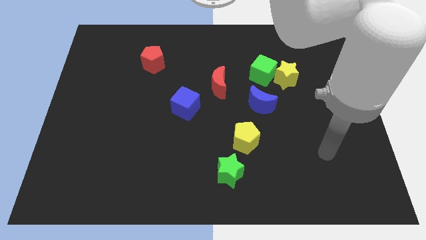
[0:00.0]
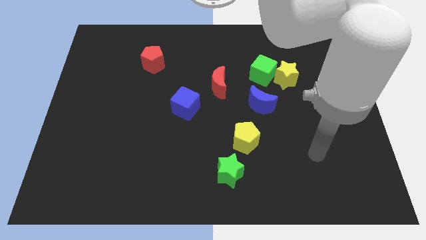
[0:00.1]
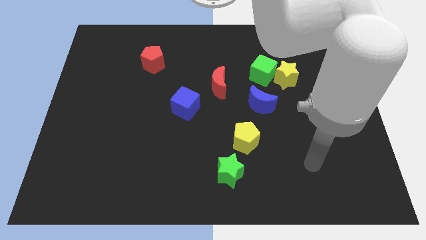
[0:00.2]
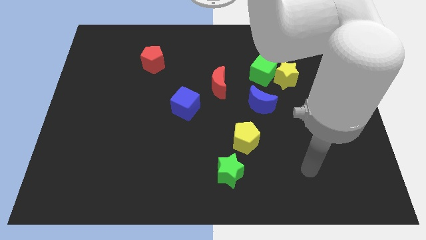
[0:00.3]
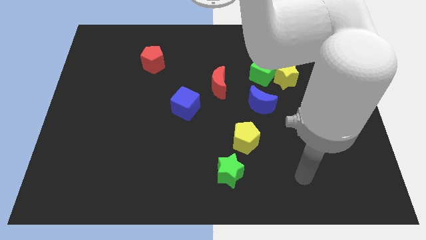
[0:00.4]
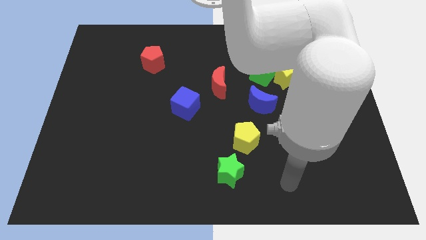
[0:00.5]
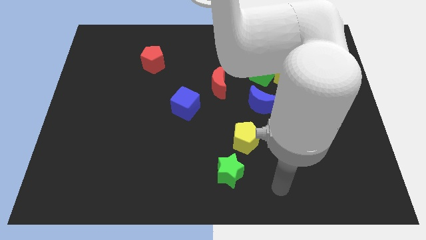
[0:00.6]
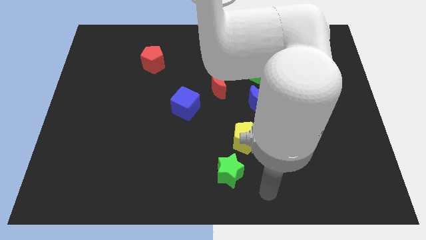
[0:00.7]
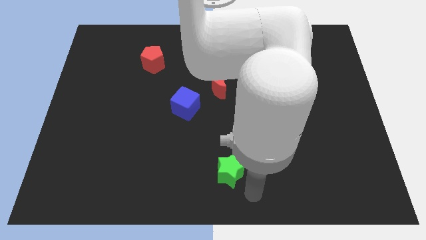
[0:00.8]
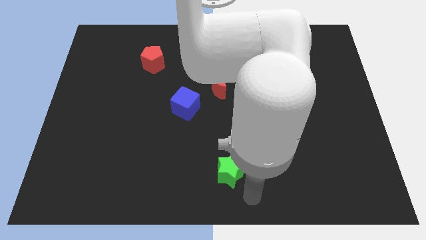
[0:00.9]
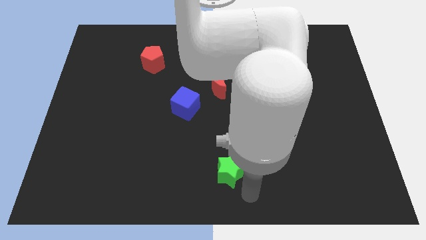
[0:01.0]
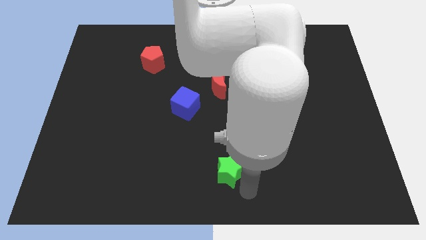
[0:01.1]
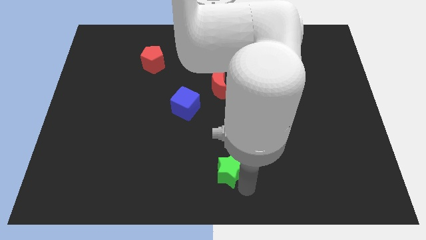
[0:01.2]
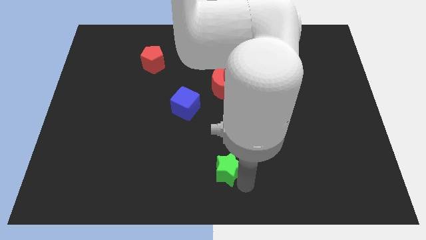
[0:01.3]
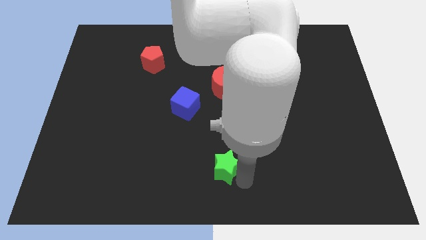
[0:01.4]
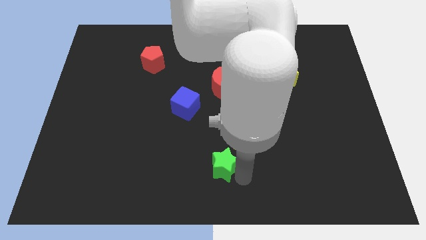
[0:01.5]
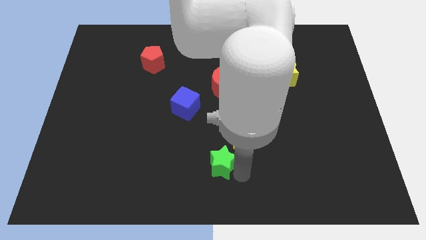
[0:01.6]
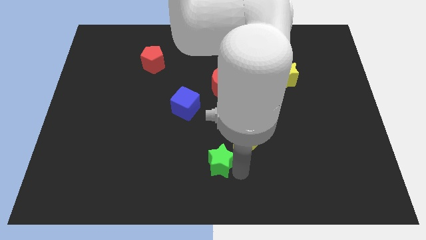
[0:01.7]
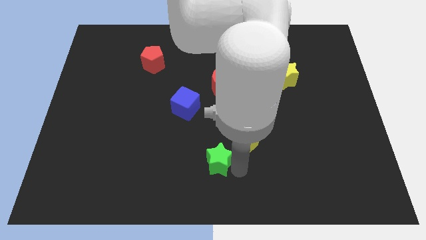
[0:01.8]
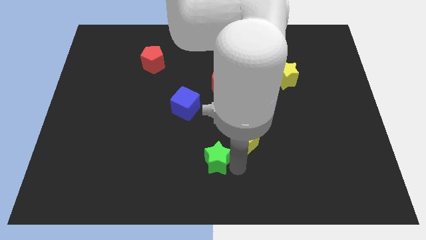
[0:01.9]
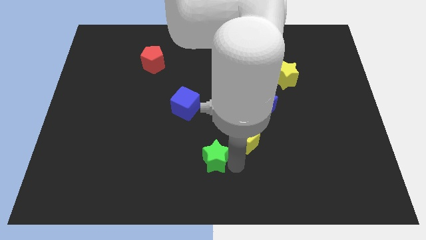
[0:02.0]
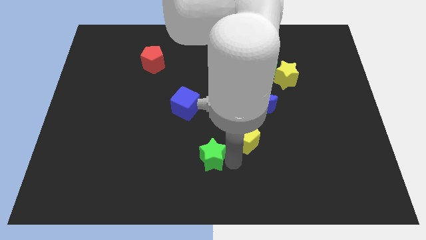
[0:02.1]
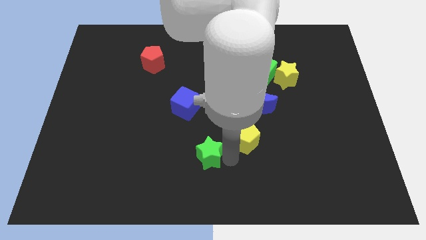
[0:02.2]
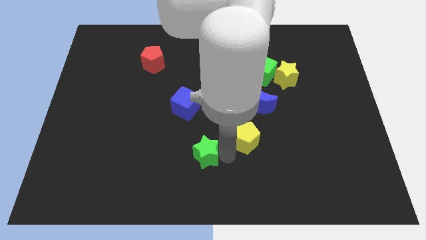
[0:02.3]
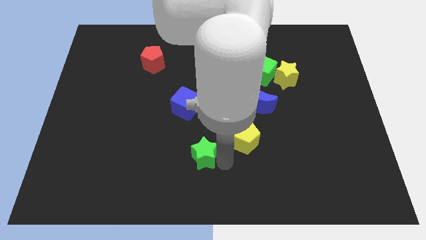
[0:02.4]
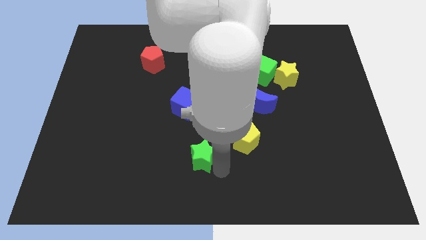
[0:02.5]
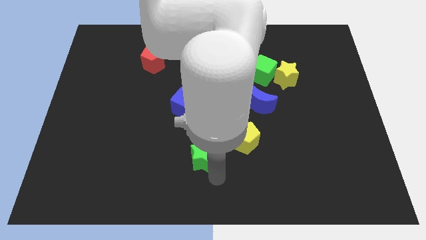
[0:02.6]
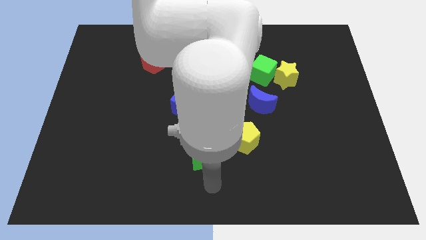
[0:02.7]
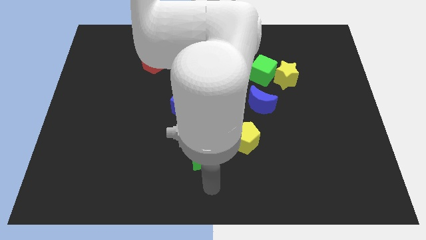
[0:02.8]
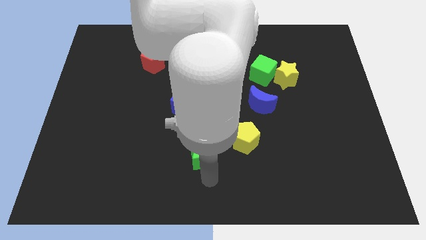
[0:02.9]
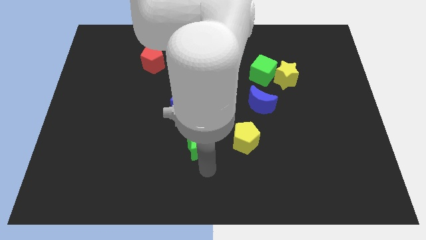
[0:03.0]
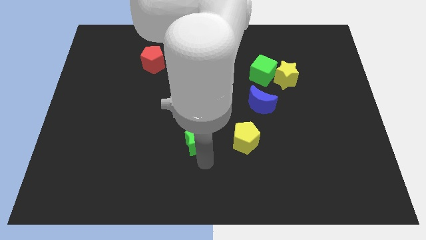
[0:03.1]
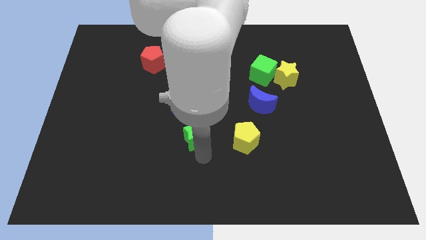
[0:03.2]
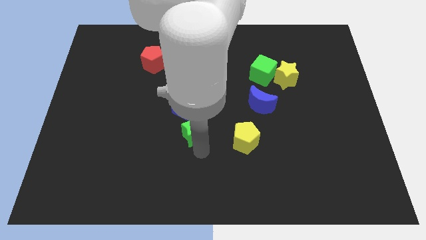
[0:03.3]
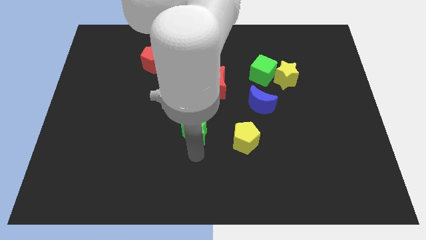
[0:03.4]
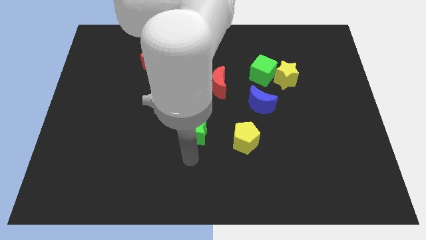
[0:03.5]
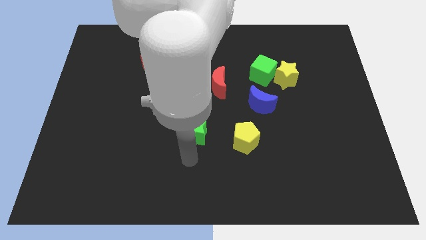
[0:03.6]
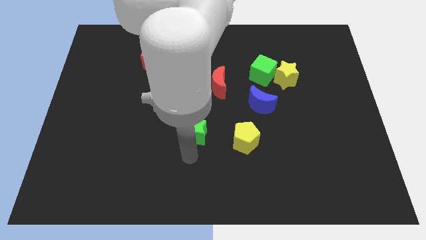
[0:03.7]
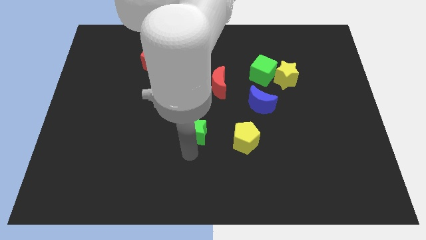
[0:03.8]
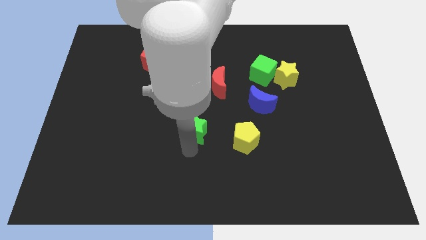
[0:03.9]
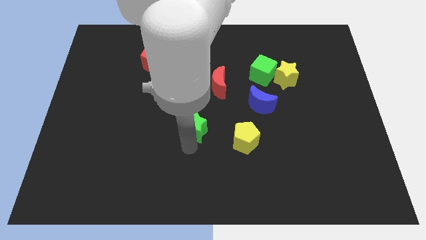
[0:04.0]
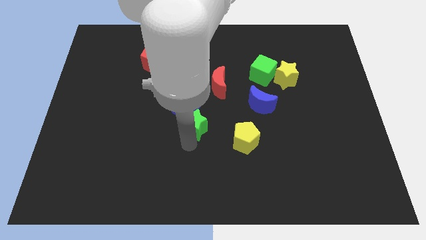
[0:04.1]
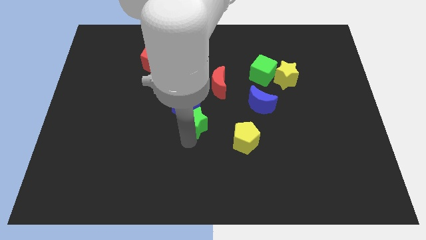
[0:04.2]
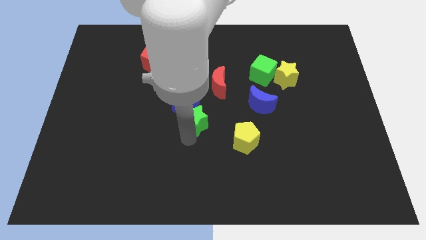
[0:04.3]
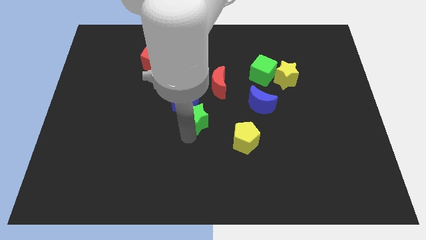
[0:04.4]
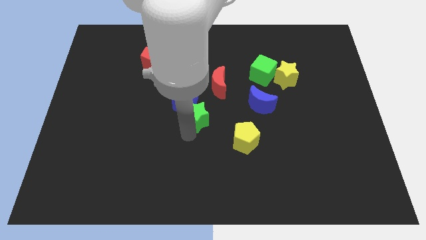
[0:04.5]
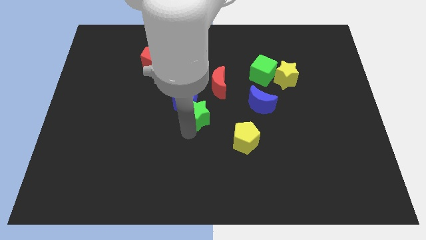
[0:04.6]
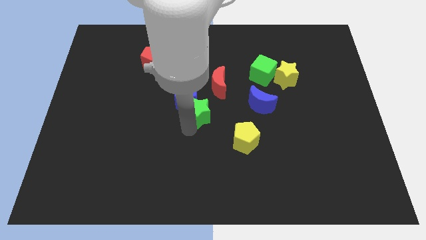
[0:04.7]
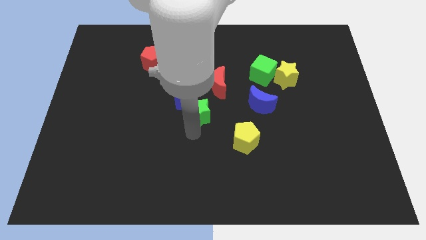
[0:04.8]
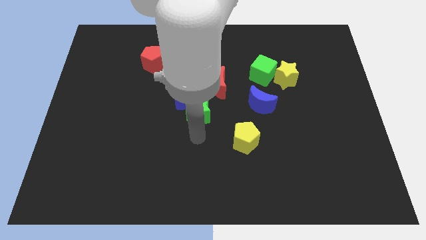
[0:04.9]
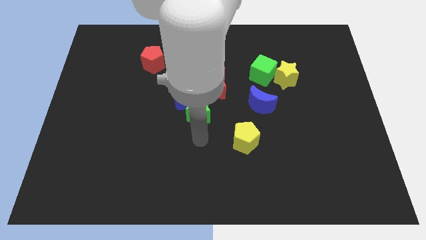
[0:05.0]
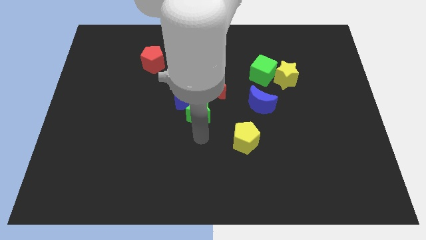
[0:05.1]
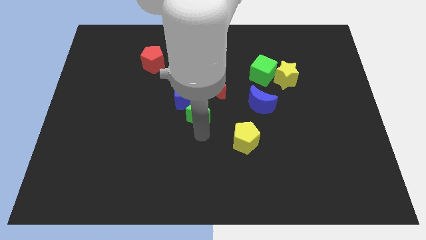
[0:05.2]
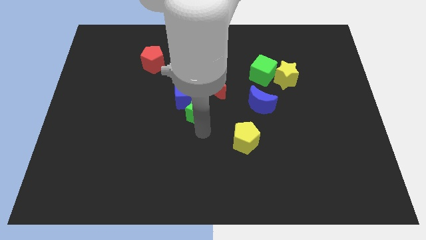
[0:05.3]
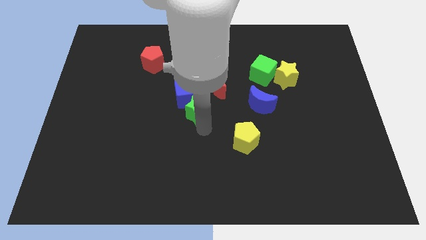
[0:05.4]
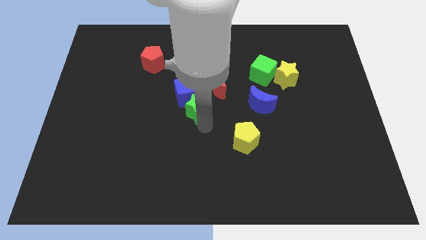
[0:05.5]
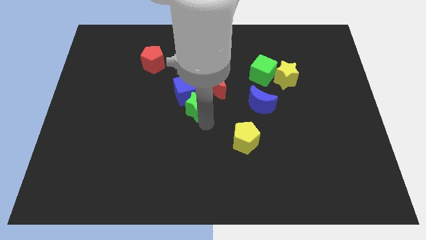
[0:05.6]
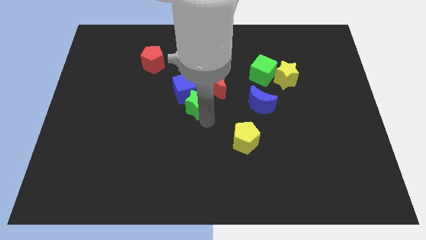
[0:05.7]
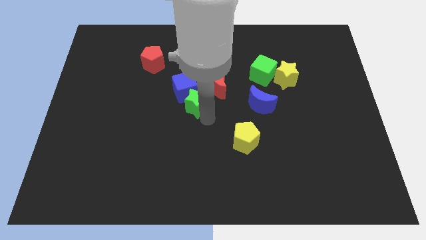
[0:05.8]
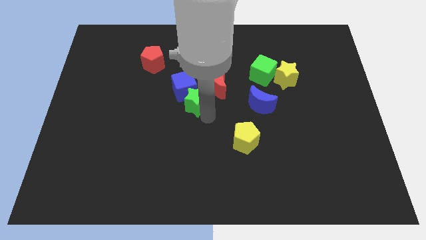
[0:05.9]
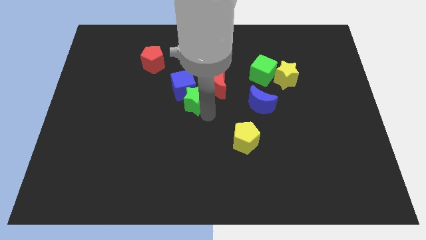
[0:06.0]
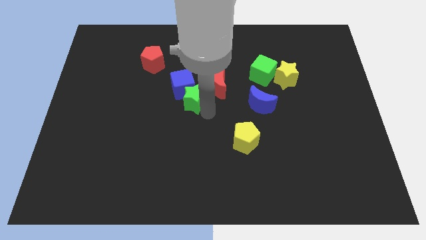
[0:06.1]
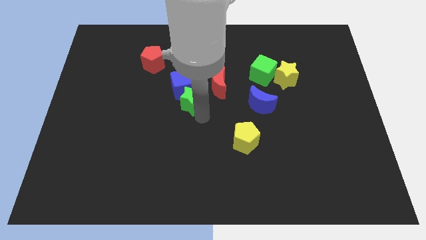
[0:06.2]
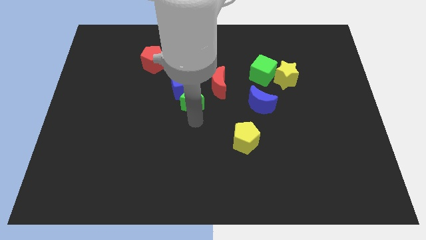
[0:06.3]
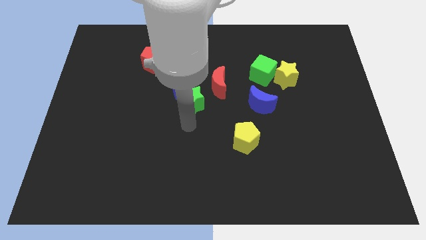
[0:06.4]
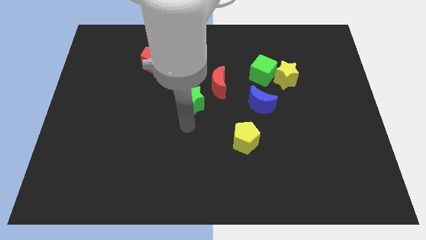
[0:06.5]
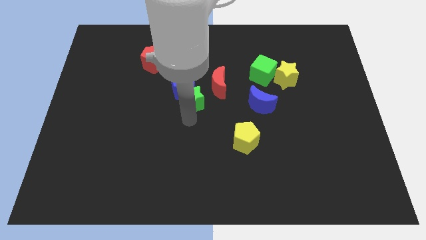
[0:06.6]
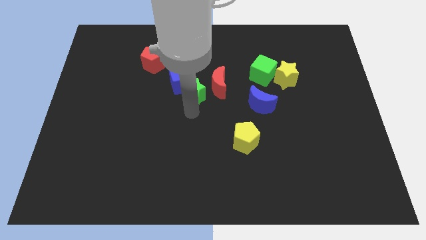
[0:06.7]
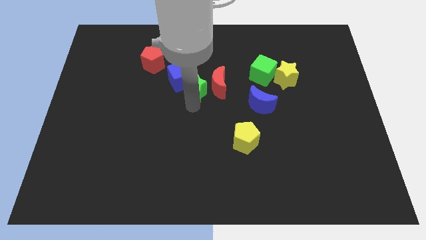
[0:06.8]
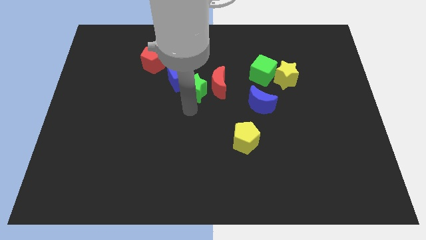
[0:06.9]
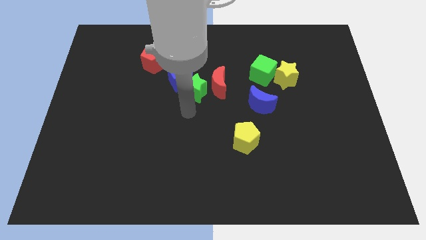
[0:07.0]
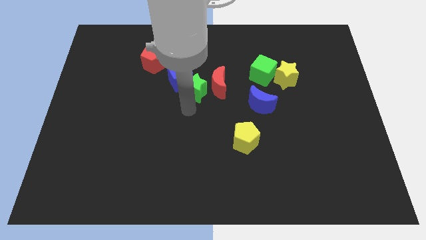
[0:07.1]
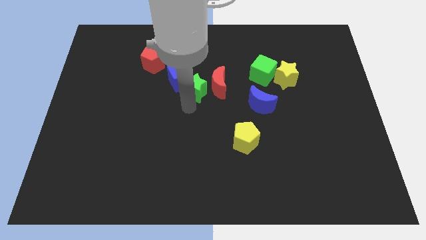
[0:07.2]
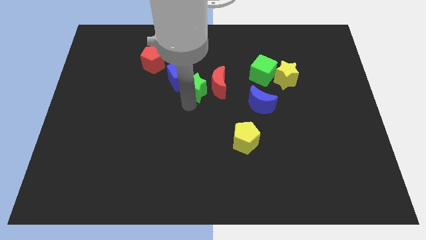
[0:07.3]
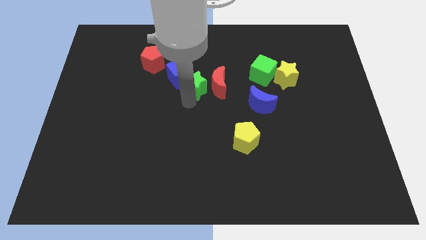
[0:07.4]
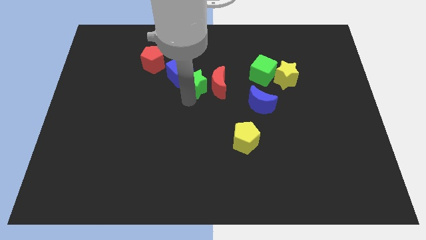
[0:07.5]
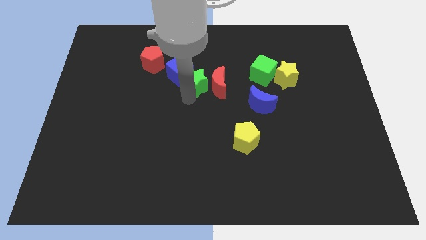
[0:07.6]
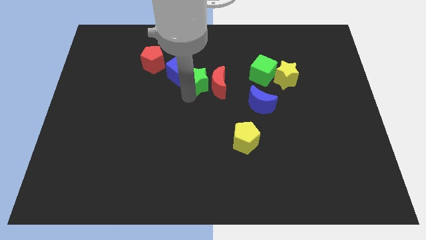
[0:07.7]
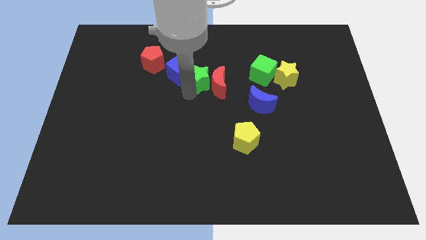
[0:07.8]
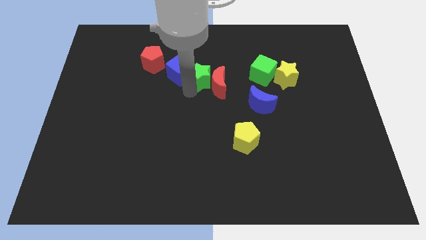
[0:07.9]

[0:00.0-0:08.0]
slide the green star just left of the green cube
